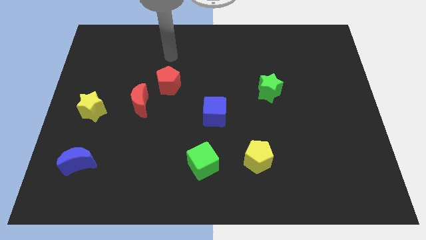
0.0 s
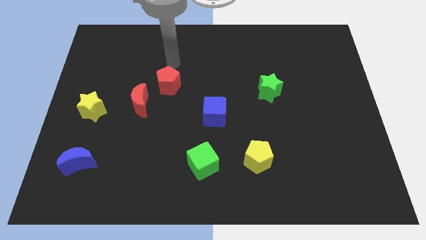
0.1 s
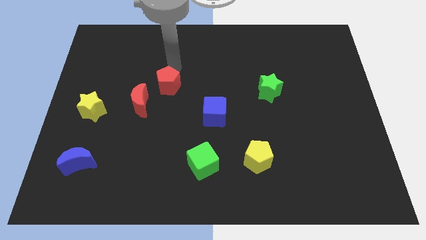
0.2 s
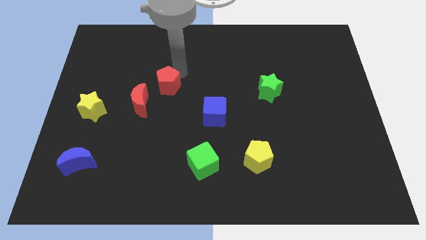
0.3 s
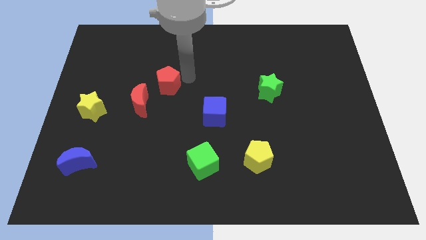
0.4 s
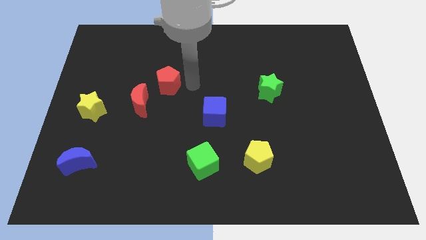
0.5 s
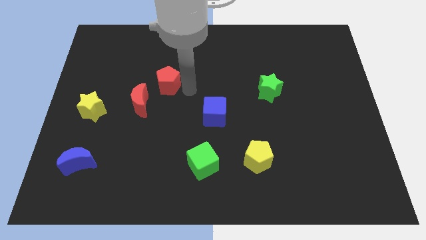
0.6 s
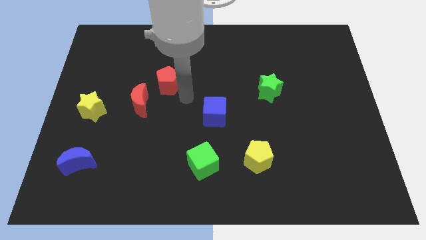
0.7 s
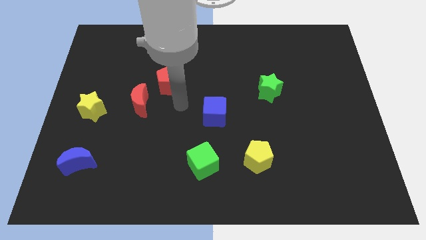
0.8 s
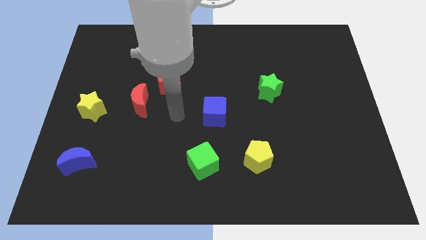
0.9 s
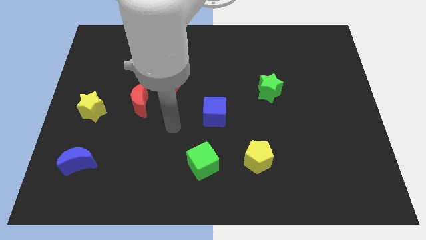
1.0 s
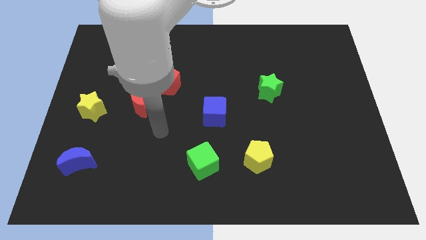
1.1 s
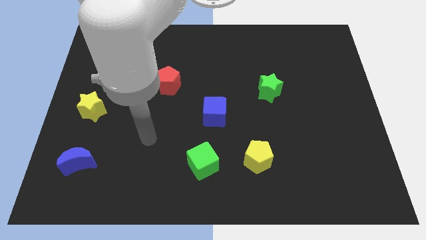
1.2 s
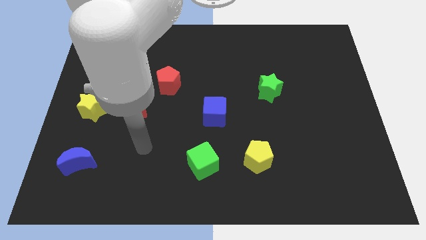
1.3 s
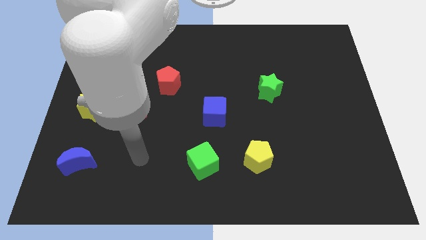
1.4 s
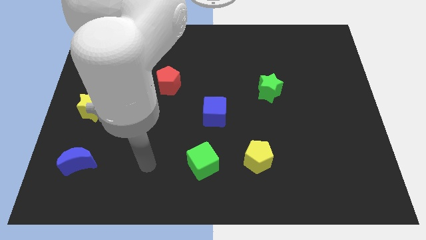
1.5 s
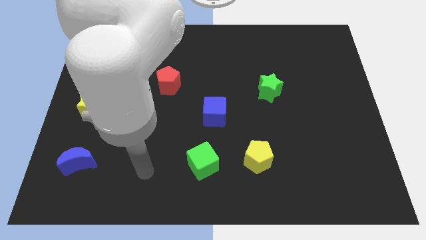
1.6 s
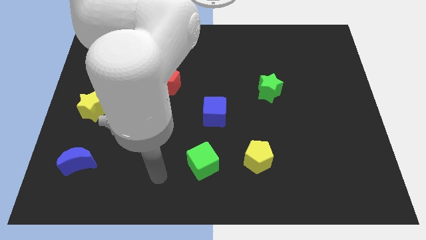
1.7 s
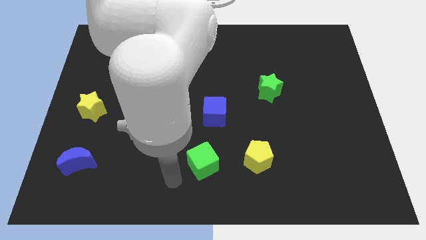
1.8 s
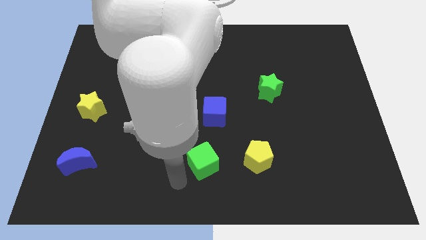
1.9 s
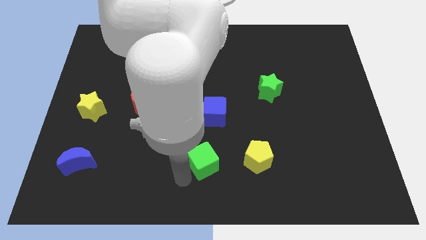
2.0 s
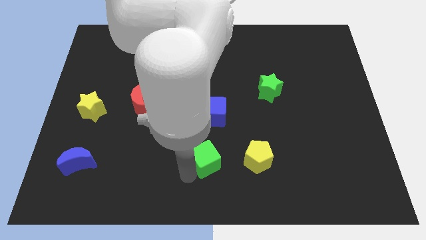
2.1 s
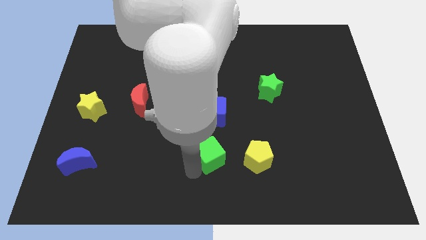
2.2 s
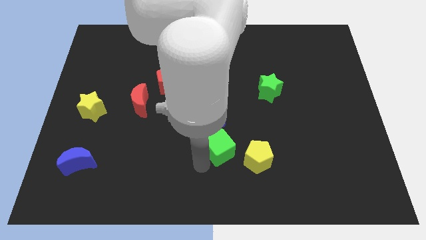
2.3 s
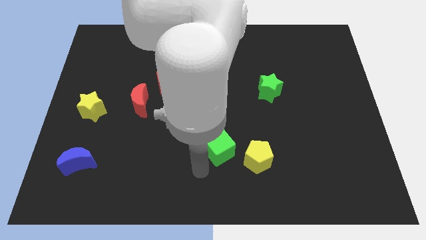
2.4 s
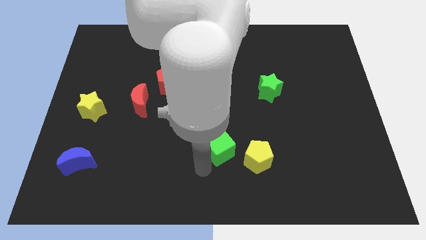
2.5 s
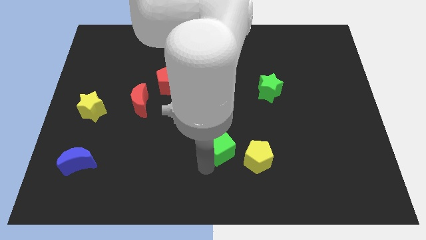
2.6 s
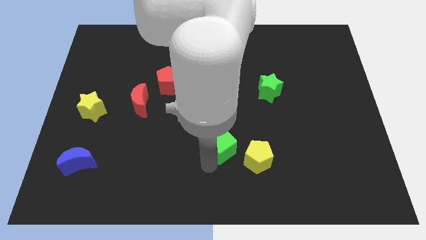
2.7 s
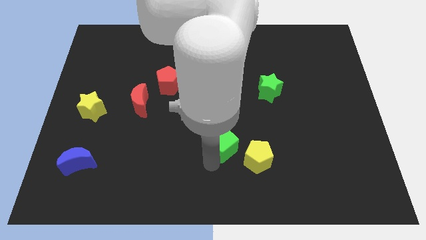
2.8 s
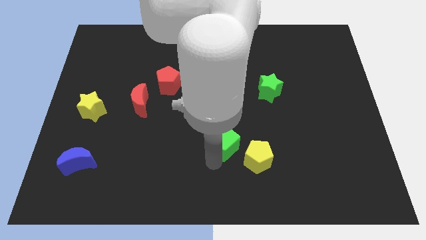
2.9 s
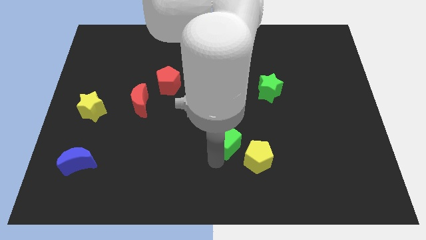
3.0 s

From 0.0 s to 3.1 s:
slide the green cube up and then to the right somewhat

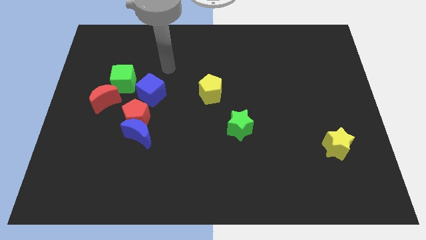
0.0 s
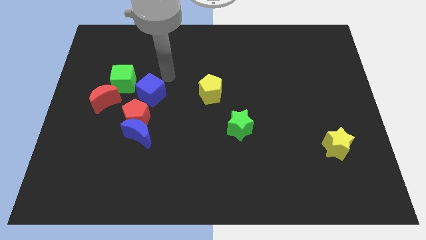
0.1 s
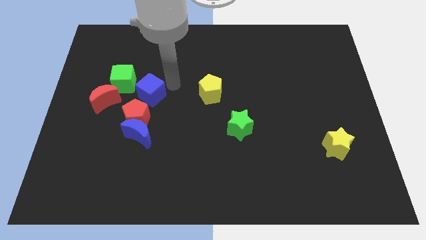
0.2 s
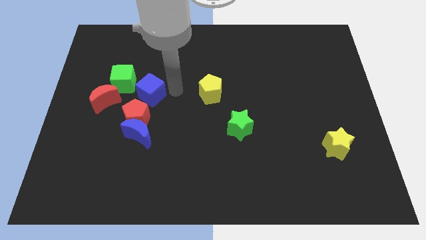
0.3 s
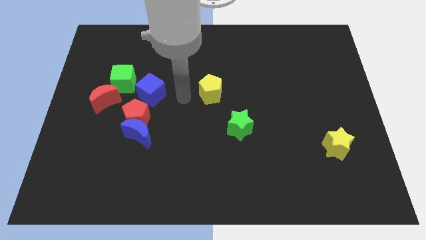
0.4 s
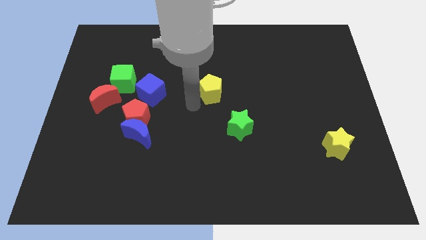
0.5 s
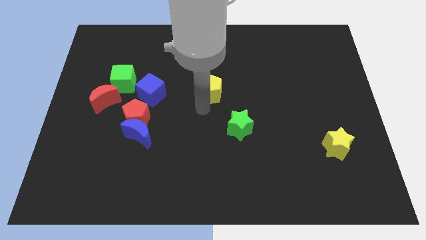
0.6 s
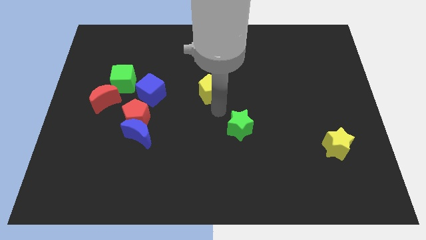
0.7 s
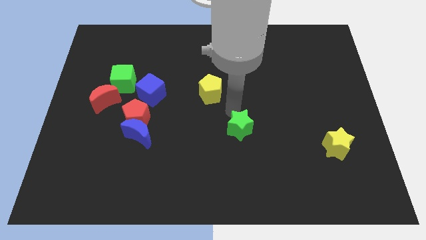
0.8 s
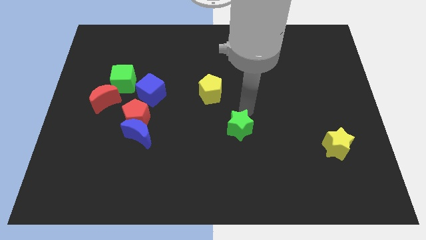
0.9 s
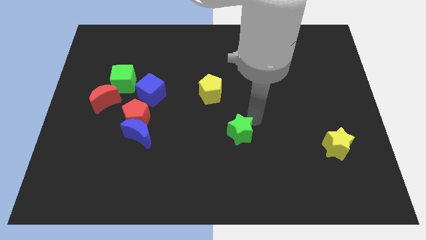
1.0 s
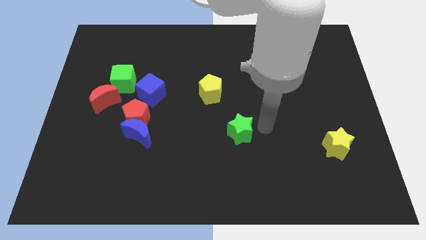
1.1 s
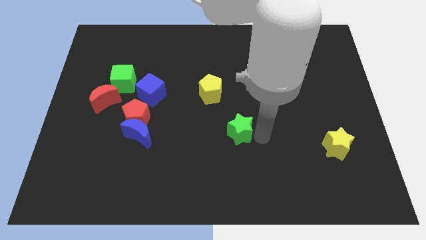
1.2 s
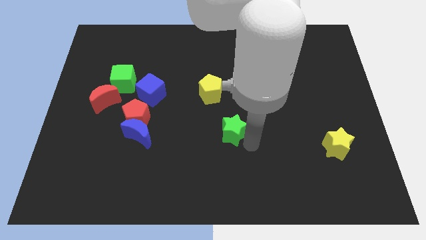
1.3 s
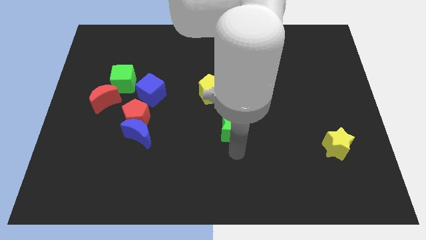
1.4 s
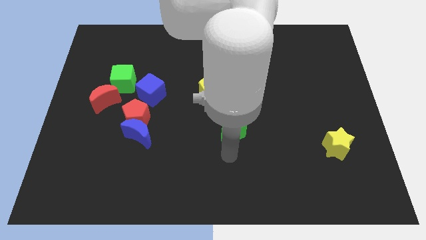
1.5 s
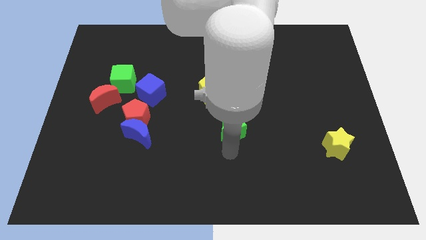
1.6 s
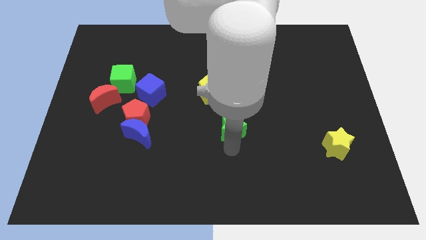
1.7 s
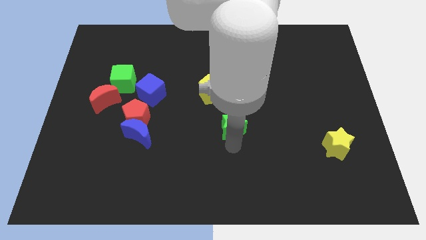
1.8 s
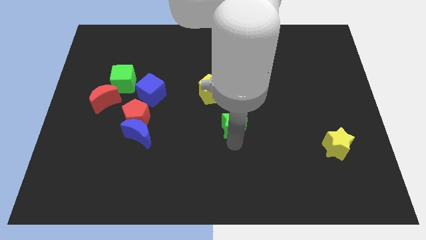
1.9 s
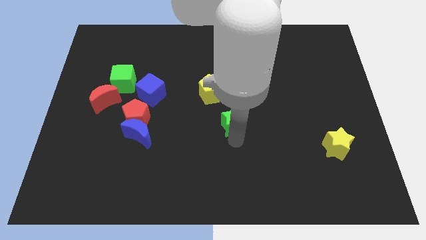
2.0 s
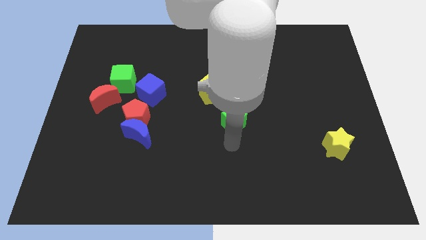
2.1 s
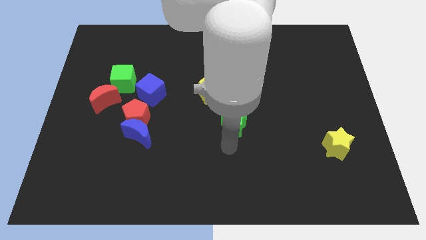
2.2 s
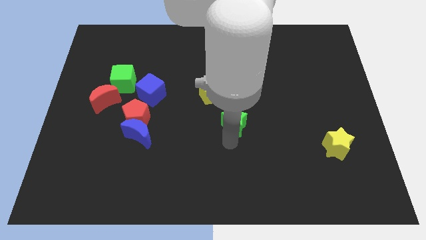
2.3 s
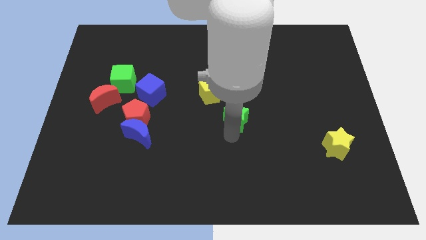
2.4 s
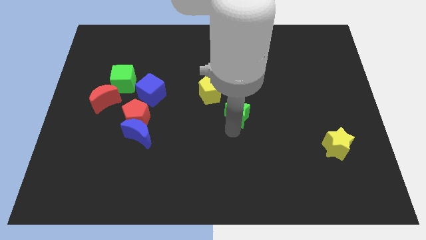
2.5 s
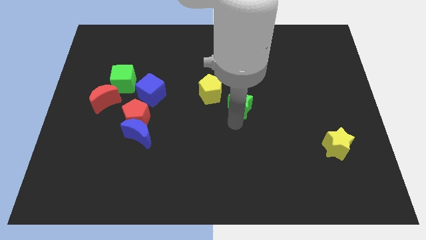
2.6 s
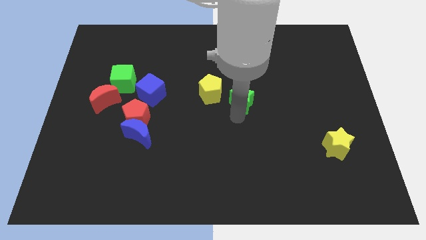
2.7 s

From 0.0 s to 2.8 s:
move the green star a bit upwards

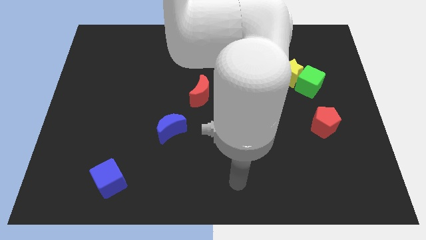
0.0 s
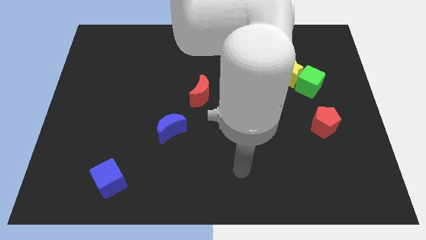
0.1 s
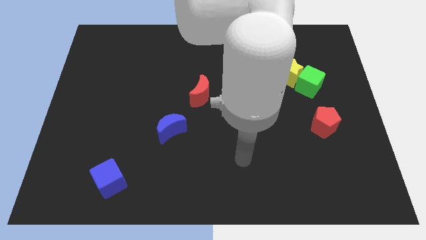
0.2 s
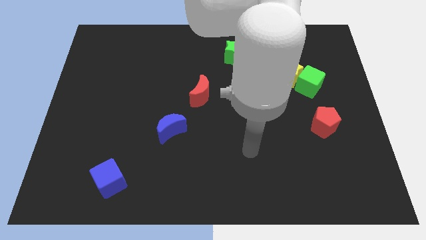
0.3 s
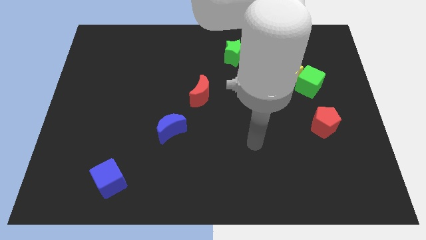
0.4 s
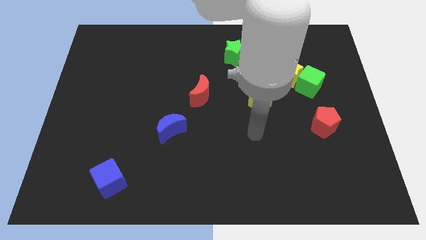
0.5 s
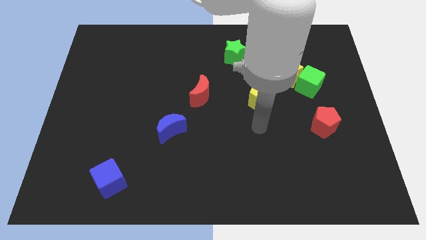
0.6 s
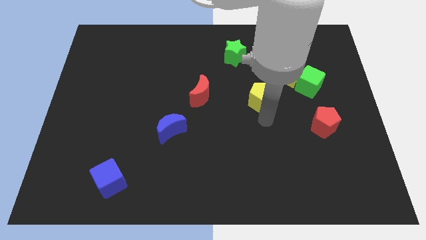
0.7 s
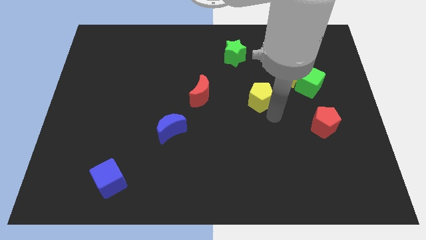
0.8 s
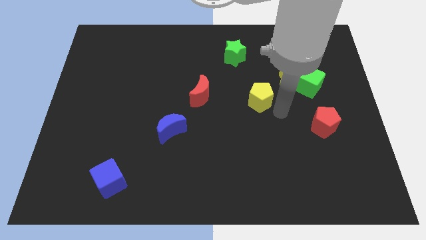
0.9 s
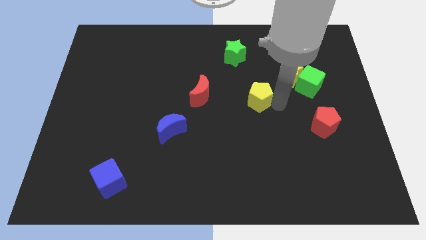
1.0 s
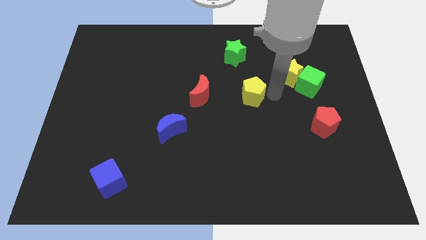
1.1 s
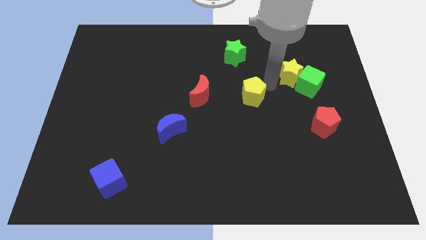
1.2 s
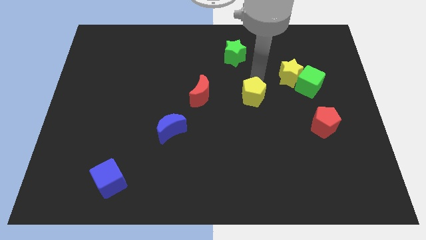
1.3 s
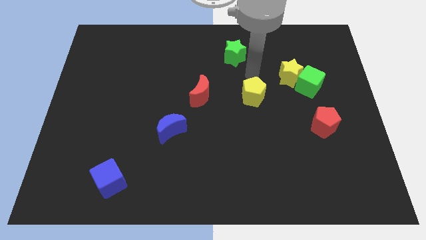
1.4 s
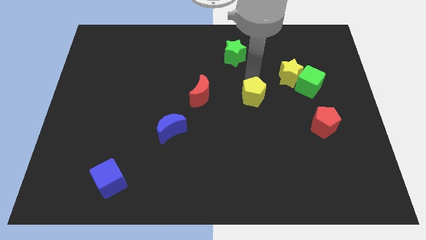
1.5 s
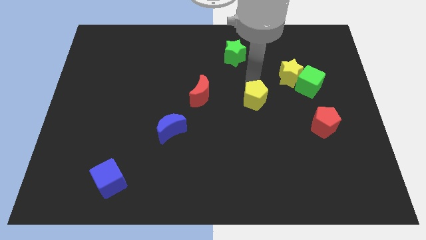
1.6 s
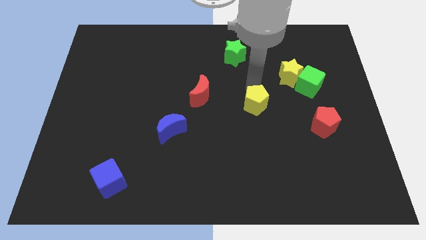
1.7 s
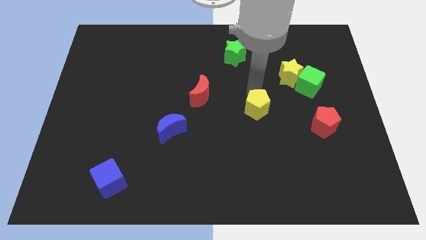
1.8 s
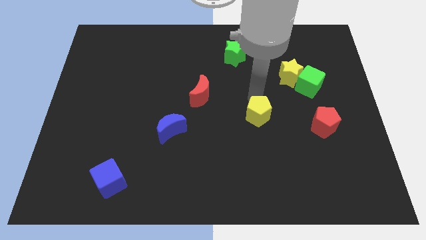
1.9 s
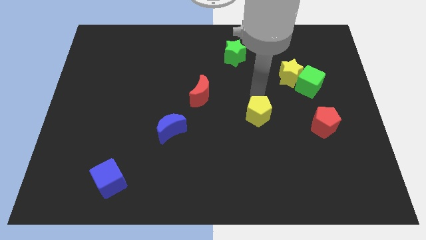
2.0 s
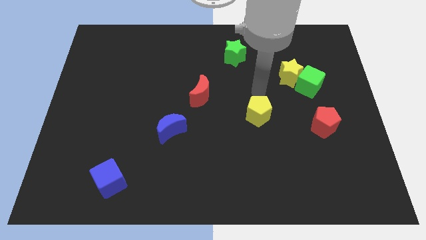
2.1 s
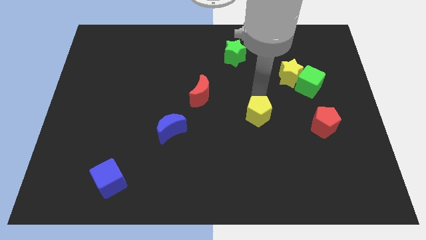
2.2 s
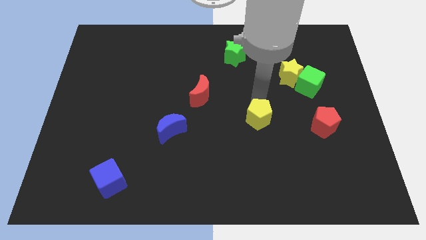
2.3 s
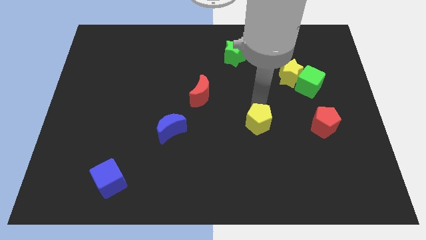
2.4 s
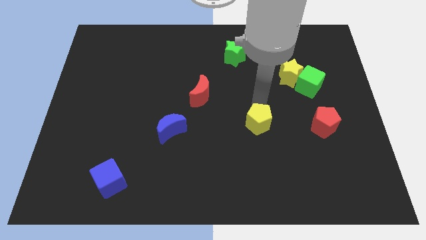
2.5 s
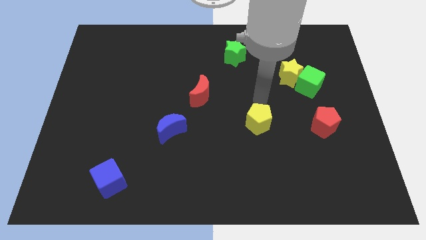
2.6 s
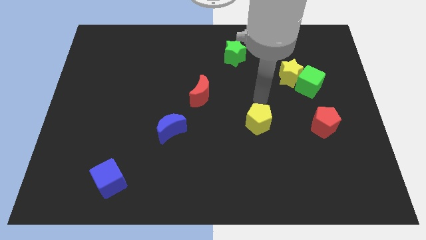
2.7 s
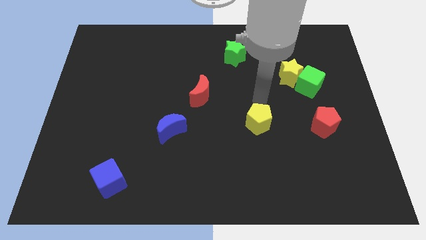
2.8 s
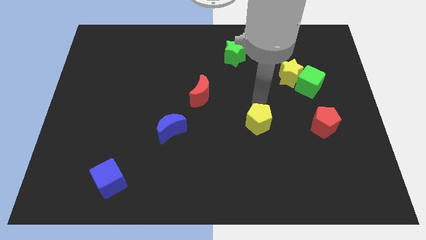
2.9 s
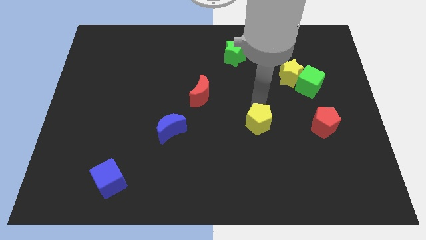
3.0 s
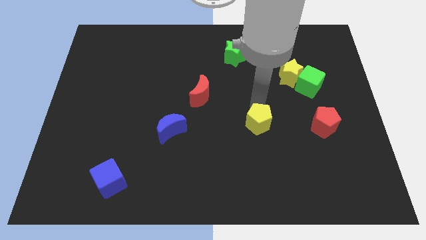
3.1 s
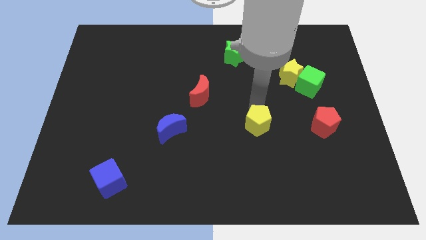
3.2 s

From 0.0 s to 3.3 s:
slightly push the yellow pentagon down
